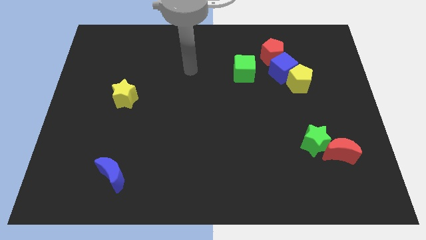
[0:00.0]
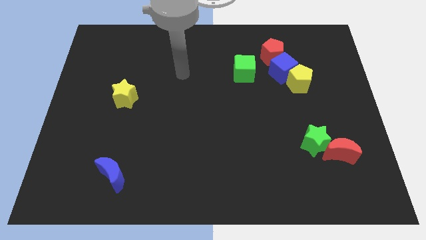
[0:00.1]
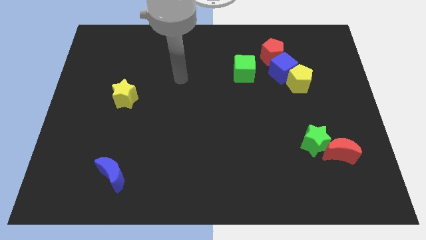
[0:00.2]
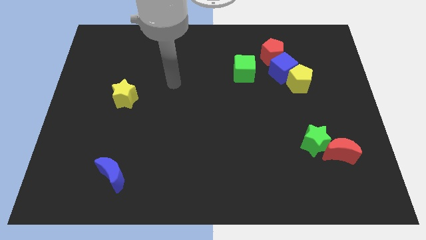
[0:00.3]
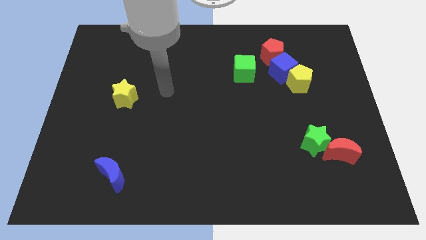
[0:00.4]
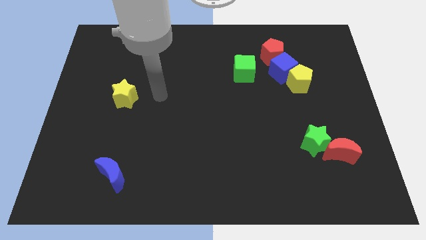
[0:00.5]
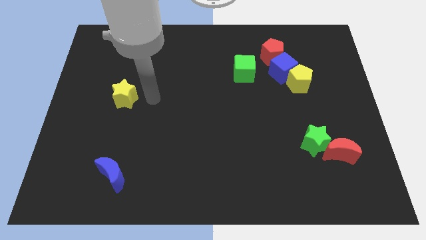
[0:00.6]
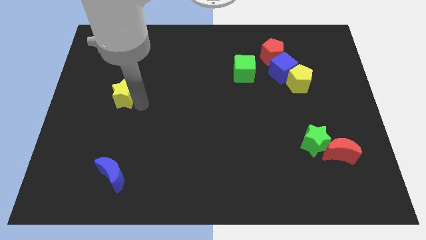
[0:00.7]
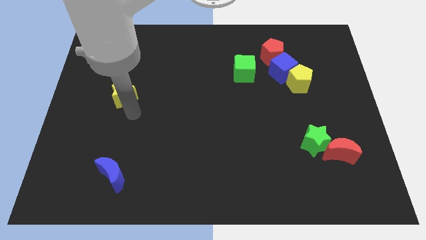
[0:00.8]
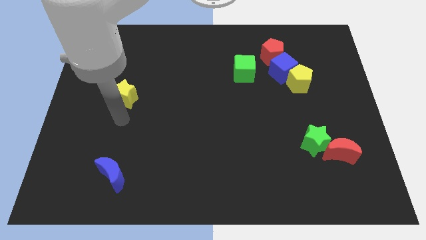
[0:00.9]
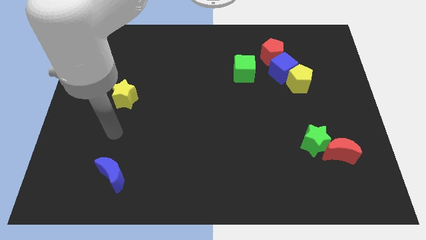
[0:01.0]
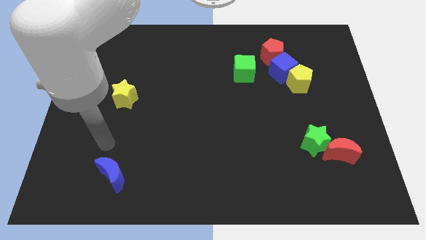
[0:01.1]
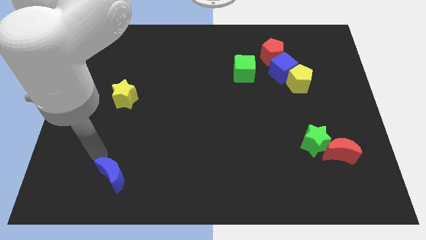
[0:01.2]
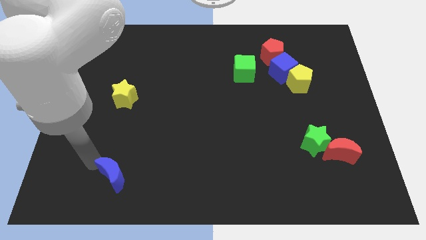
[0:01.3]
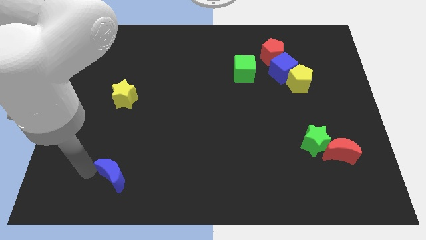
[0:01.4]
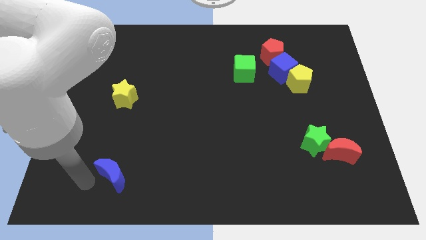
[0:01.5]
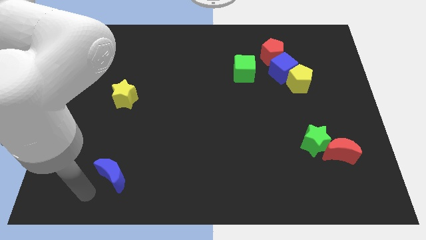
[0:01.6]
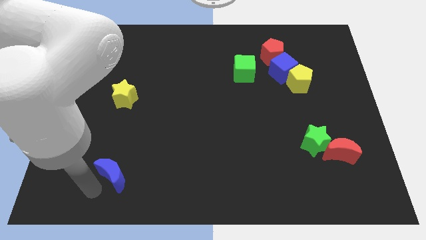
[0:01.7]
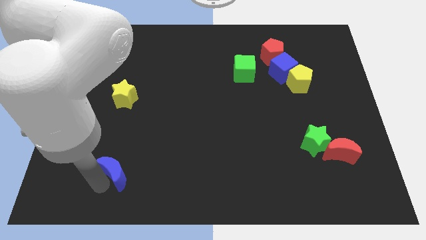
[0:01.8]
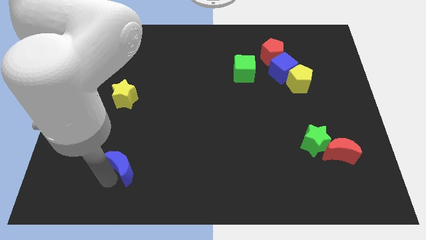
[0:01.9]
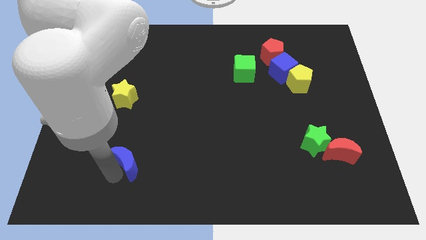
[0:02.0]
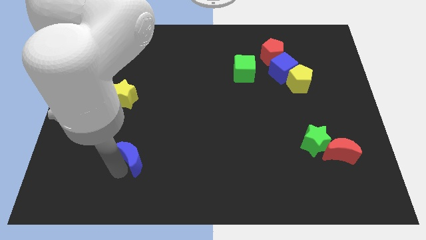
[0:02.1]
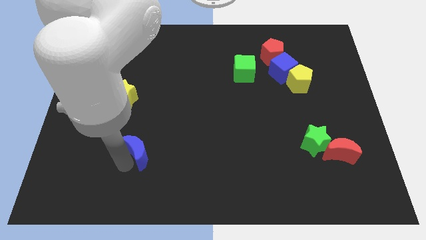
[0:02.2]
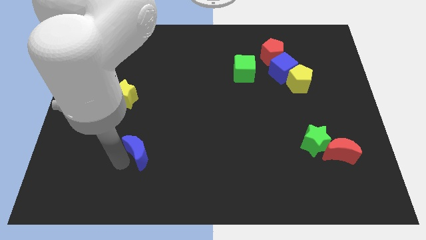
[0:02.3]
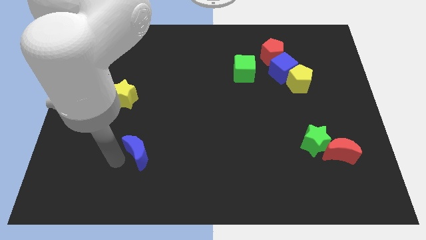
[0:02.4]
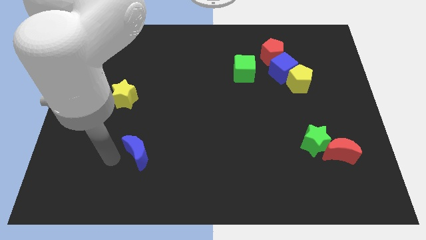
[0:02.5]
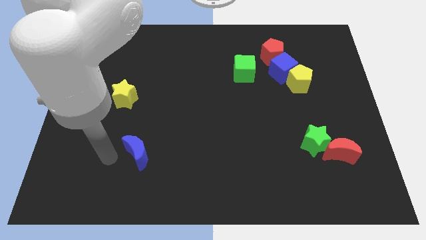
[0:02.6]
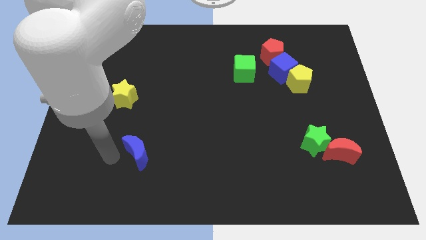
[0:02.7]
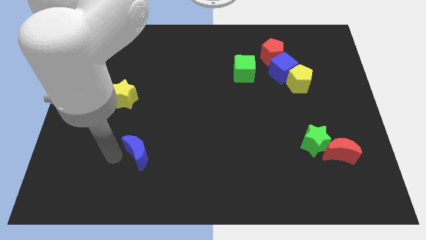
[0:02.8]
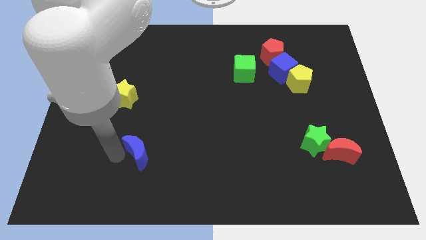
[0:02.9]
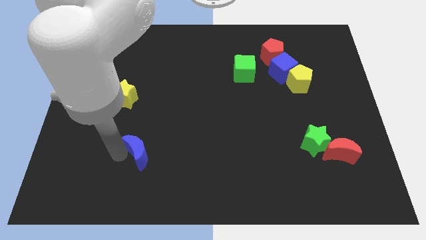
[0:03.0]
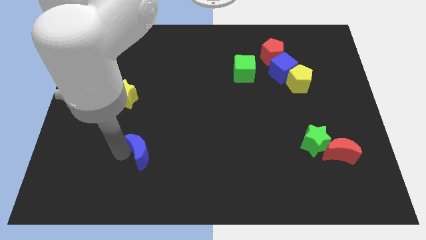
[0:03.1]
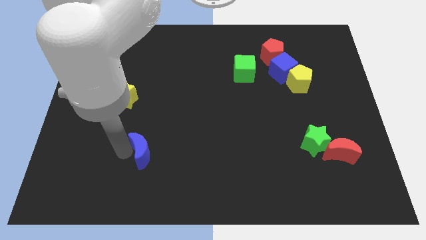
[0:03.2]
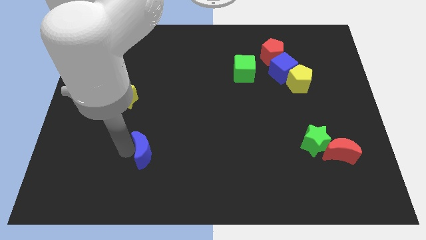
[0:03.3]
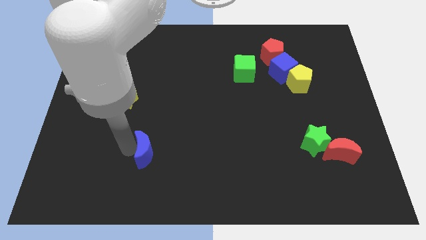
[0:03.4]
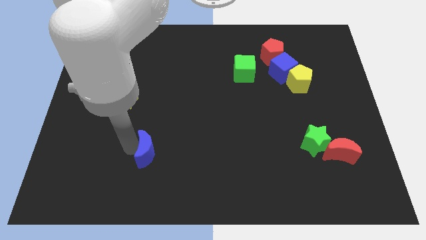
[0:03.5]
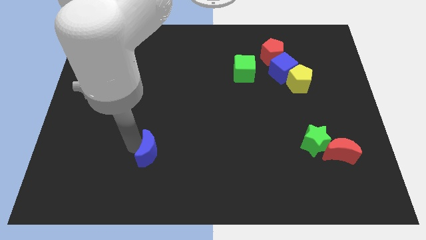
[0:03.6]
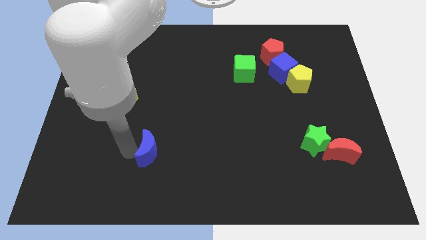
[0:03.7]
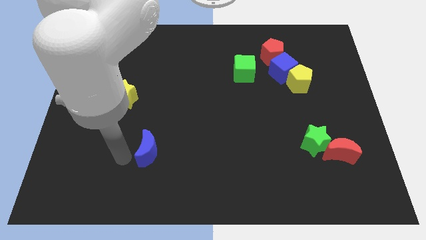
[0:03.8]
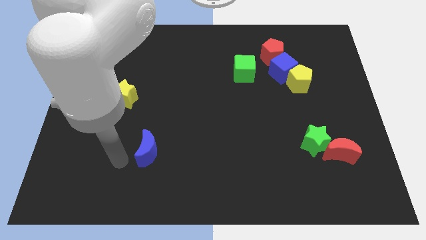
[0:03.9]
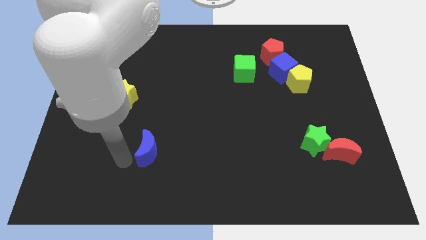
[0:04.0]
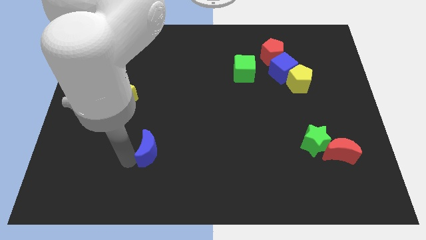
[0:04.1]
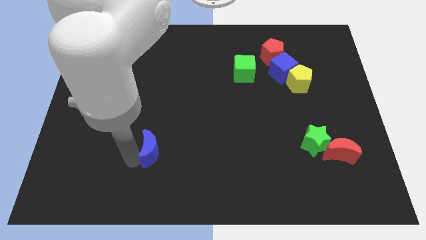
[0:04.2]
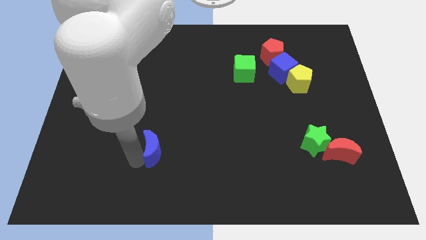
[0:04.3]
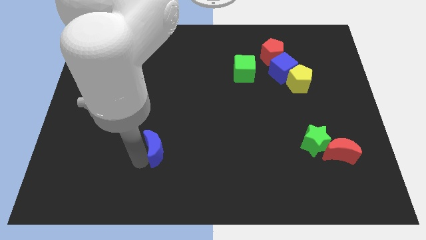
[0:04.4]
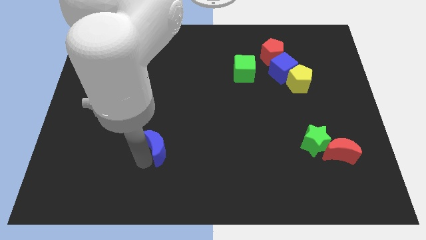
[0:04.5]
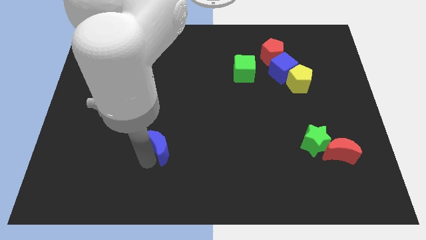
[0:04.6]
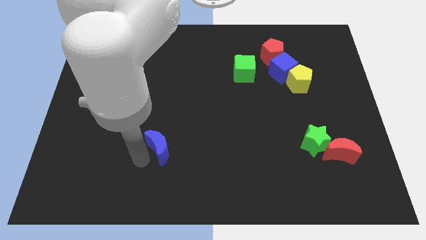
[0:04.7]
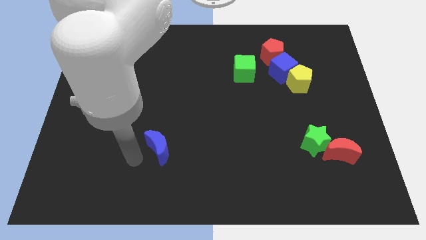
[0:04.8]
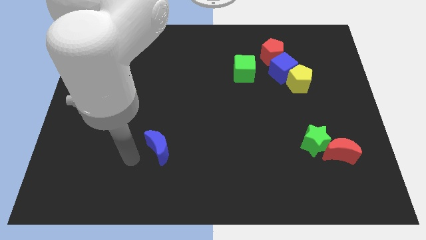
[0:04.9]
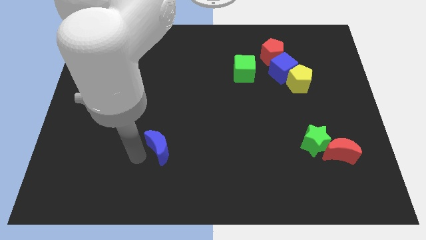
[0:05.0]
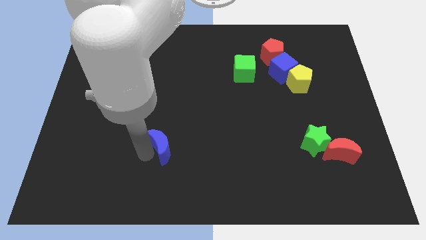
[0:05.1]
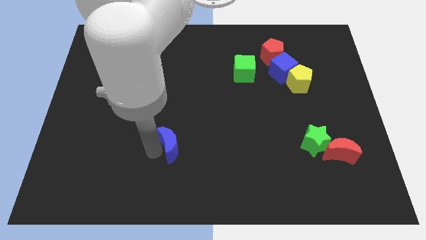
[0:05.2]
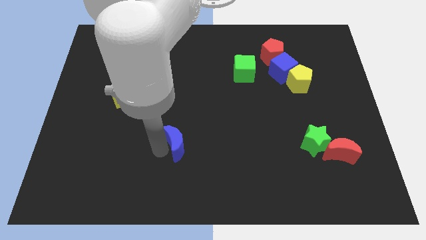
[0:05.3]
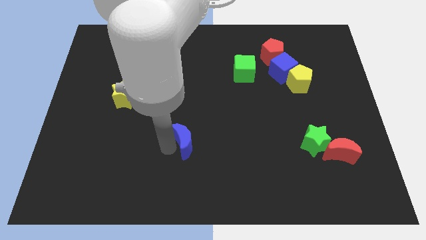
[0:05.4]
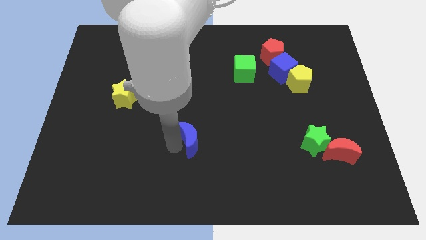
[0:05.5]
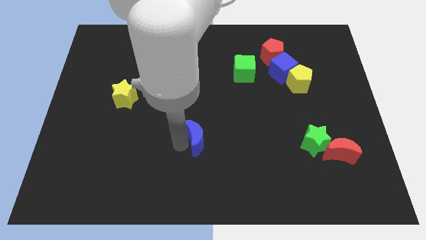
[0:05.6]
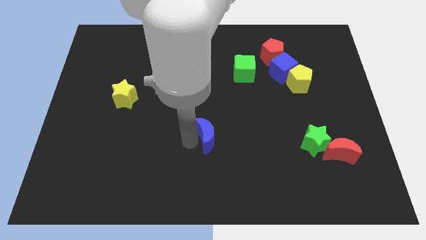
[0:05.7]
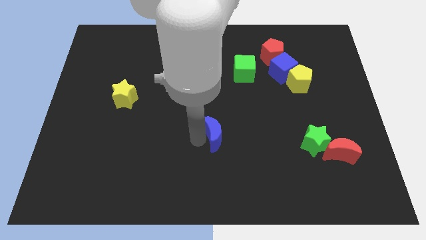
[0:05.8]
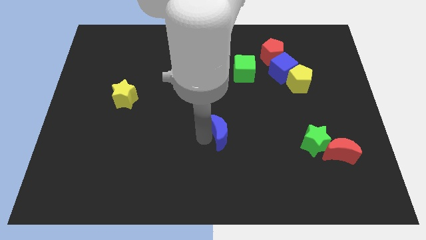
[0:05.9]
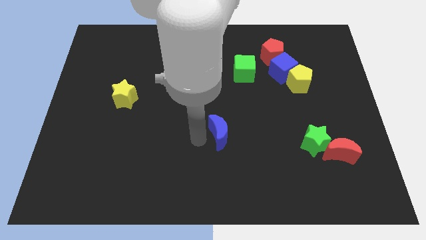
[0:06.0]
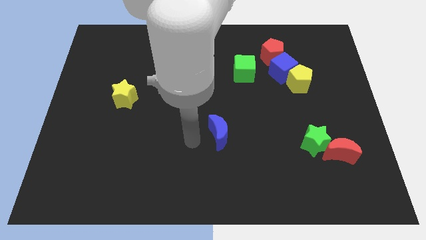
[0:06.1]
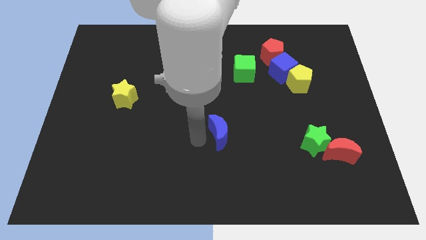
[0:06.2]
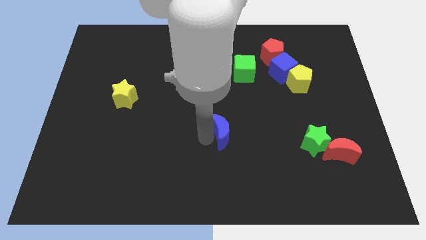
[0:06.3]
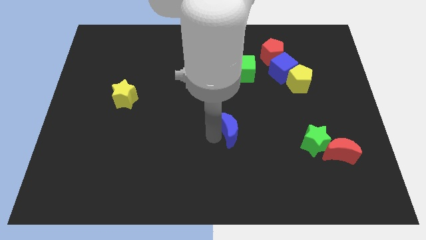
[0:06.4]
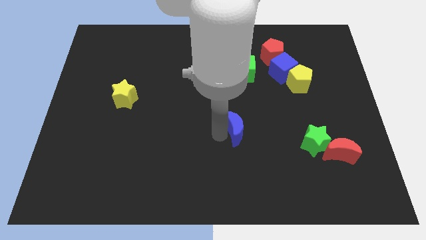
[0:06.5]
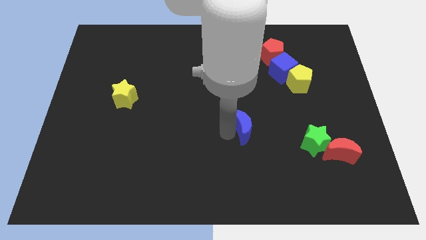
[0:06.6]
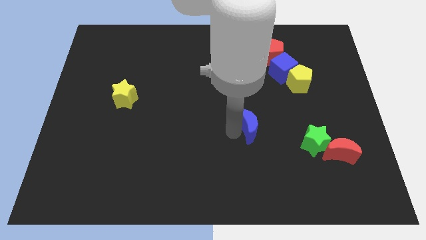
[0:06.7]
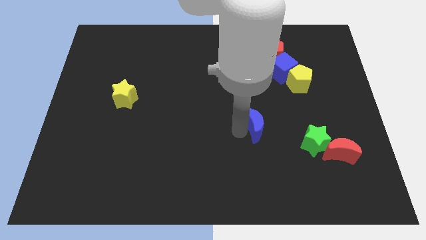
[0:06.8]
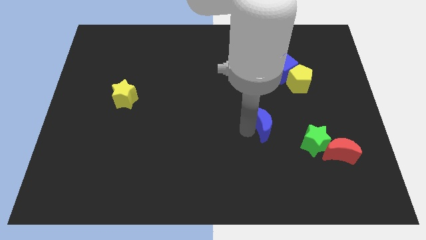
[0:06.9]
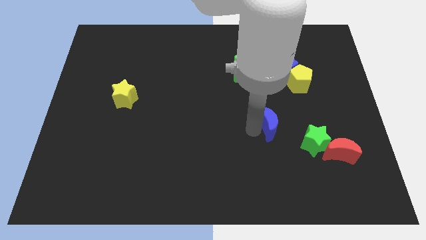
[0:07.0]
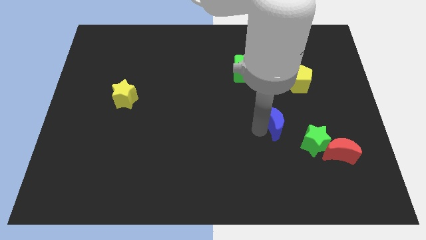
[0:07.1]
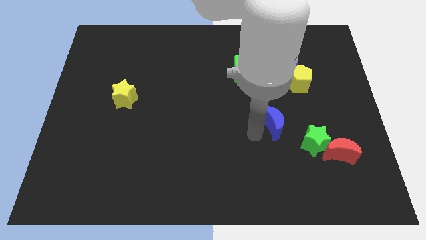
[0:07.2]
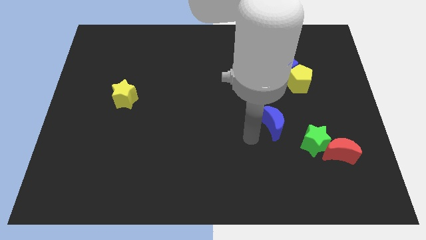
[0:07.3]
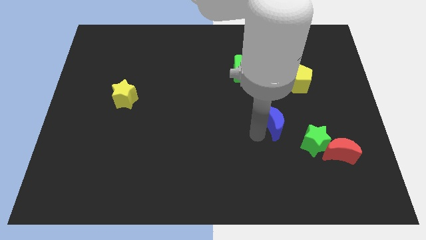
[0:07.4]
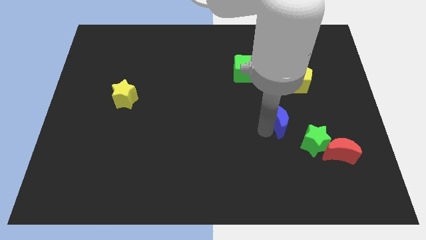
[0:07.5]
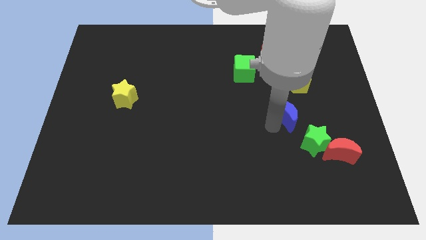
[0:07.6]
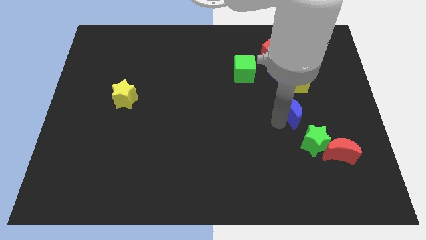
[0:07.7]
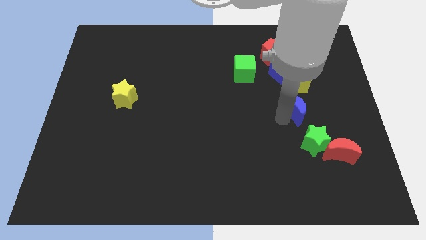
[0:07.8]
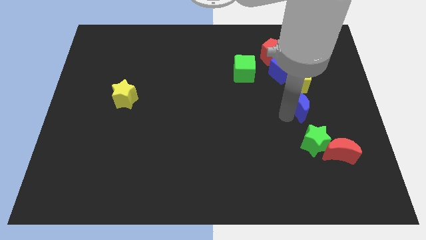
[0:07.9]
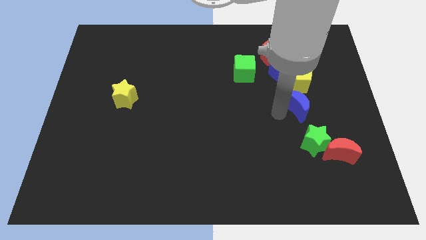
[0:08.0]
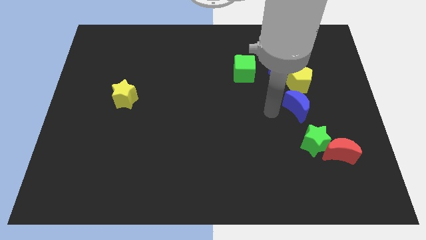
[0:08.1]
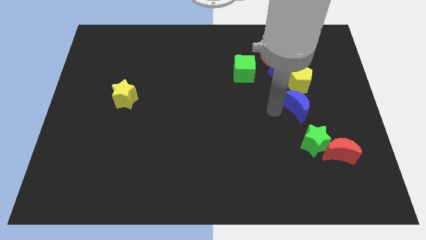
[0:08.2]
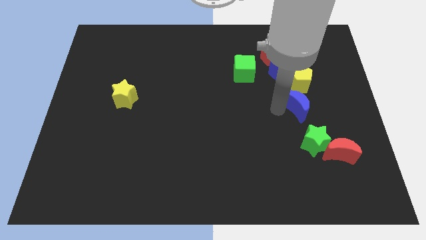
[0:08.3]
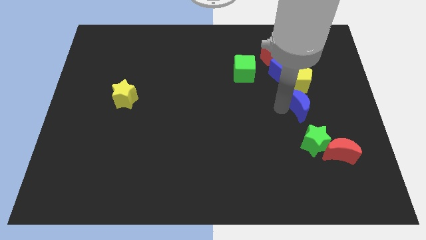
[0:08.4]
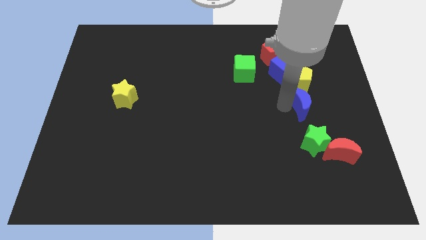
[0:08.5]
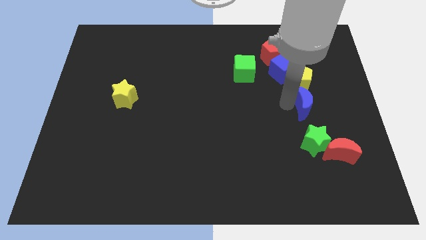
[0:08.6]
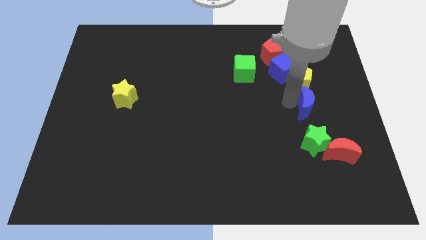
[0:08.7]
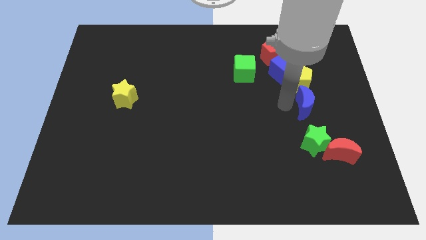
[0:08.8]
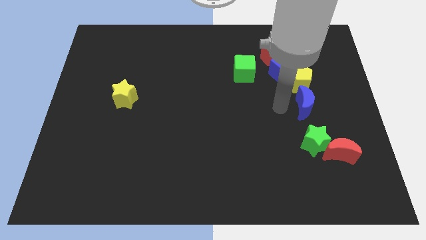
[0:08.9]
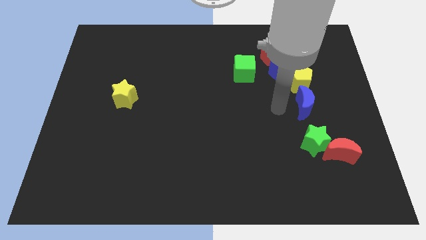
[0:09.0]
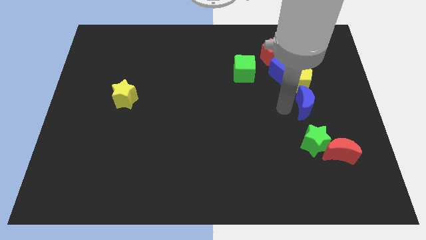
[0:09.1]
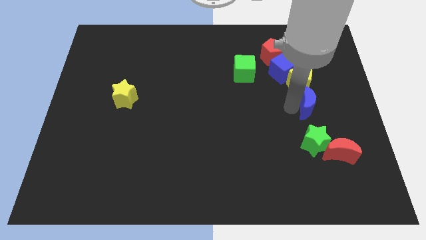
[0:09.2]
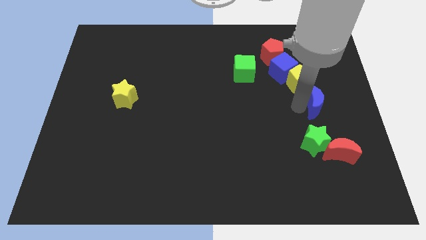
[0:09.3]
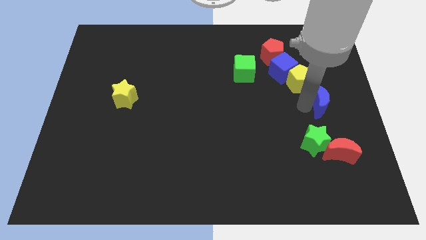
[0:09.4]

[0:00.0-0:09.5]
push the blue moon to the center right
